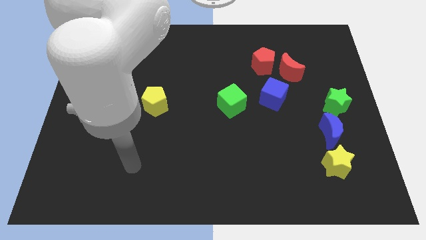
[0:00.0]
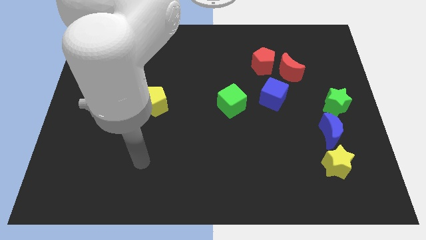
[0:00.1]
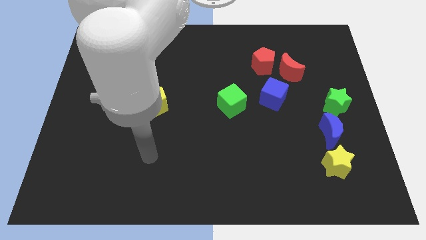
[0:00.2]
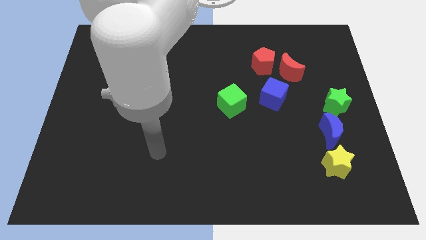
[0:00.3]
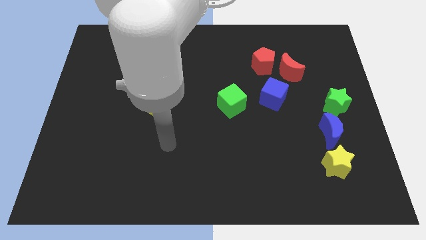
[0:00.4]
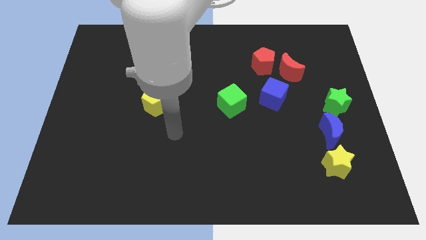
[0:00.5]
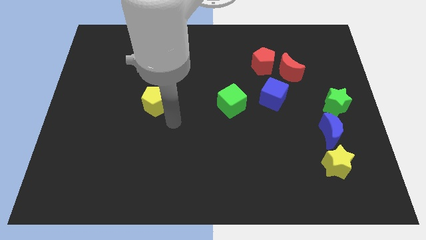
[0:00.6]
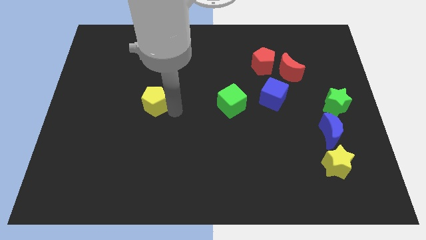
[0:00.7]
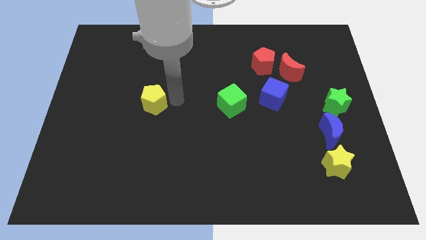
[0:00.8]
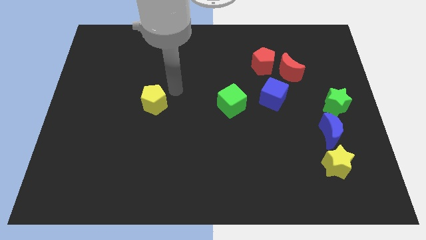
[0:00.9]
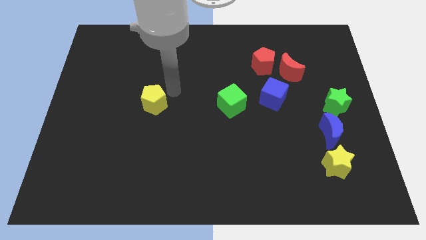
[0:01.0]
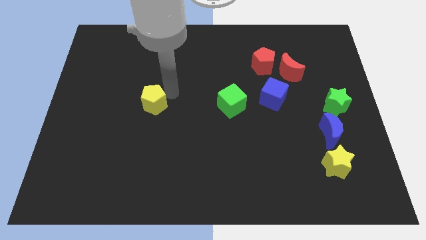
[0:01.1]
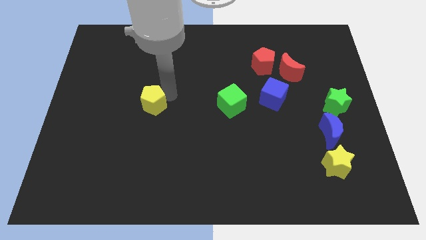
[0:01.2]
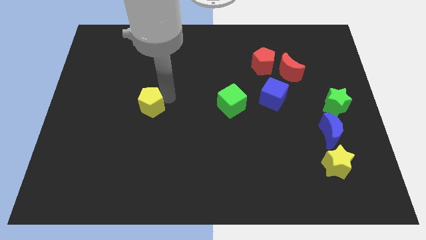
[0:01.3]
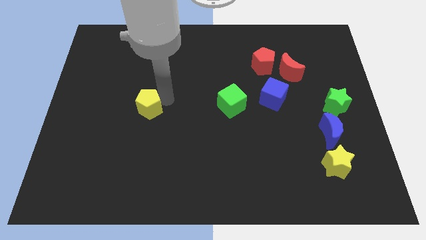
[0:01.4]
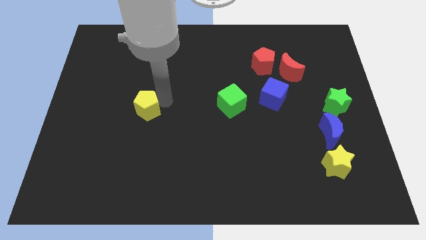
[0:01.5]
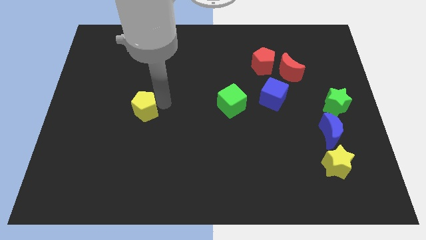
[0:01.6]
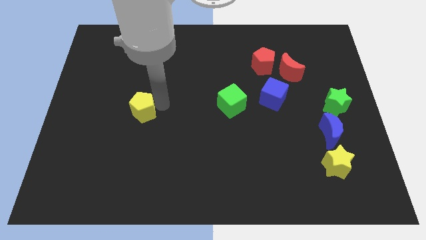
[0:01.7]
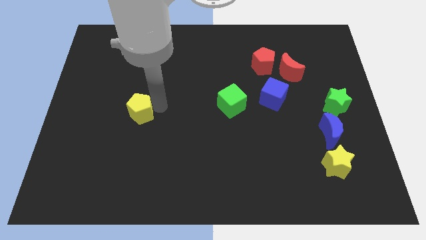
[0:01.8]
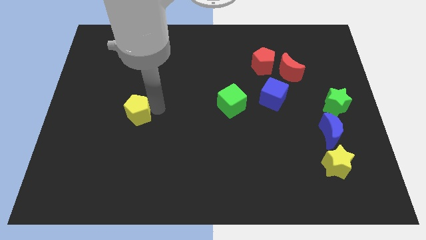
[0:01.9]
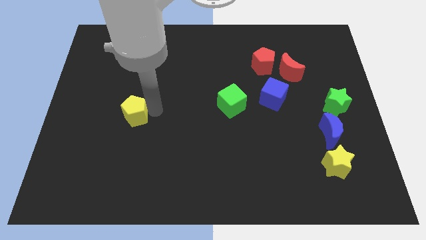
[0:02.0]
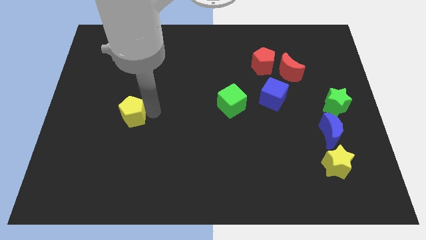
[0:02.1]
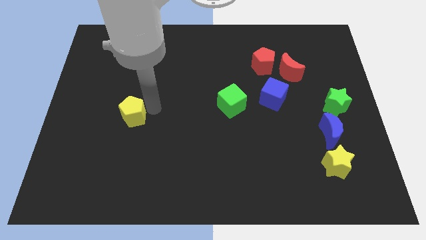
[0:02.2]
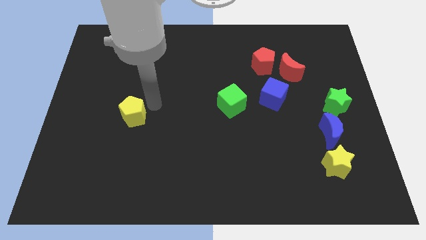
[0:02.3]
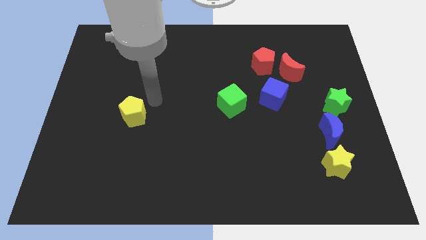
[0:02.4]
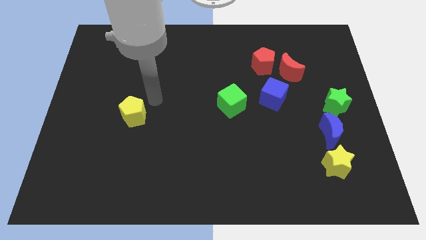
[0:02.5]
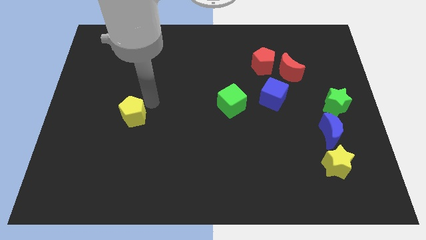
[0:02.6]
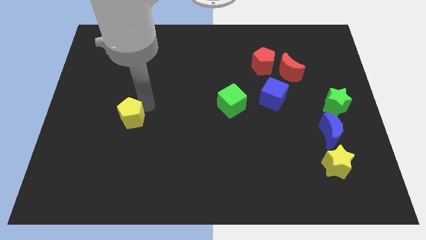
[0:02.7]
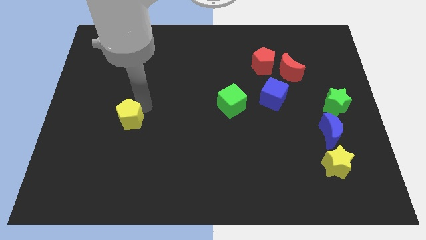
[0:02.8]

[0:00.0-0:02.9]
slightly push the yellow pentagon downwards and then left

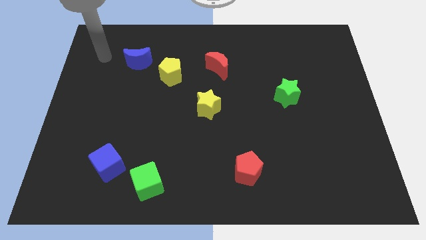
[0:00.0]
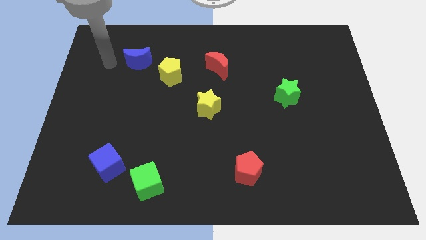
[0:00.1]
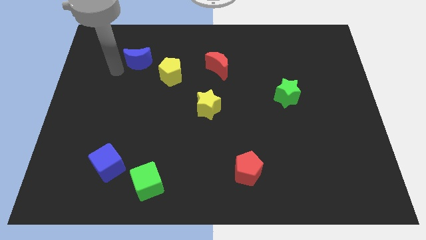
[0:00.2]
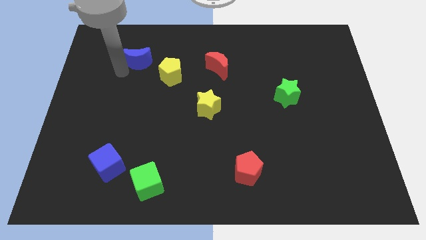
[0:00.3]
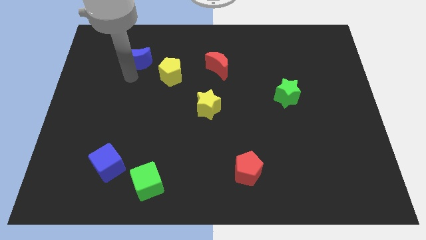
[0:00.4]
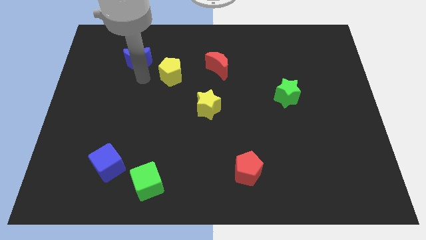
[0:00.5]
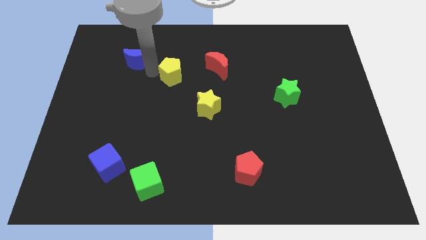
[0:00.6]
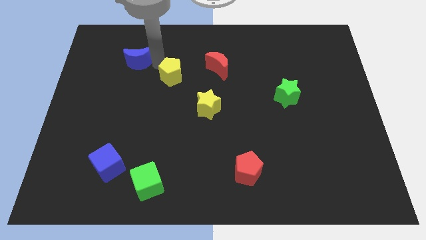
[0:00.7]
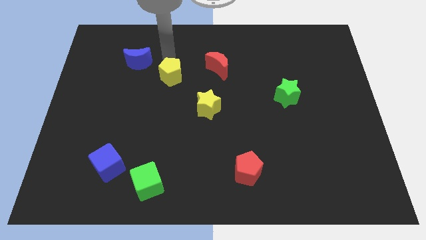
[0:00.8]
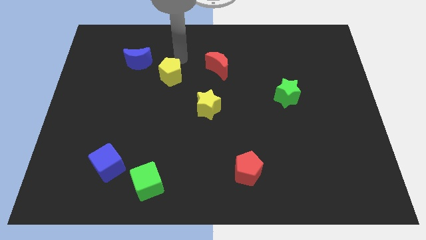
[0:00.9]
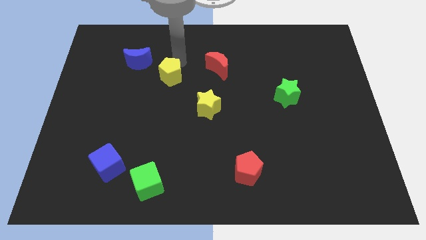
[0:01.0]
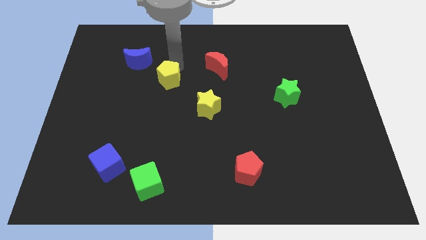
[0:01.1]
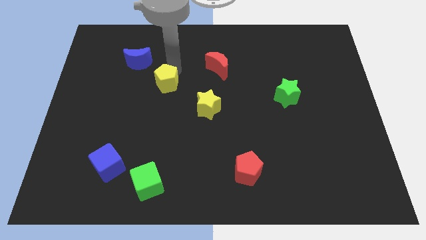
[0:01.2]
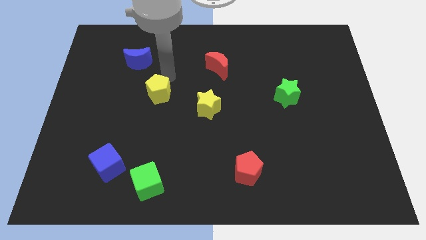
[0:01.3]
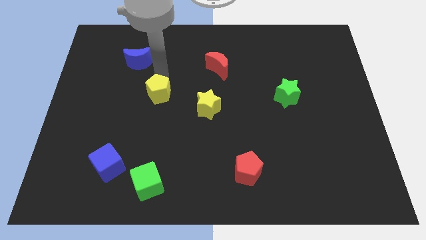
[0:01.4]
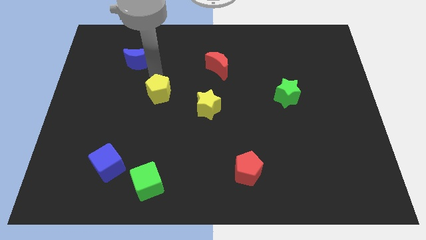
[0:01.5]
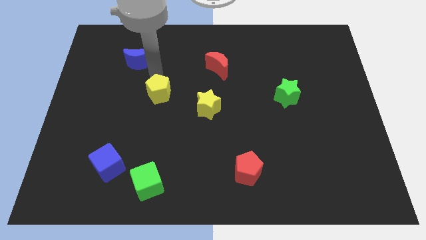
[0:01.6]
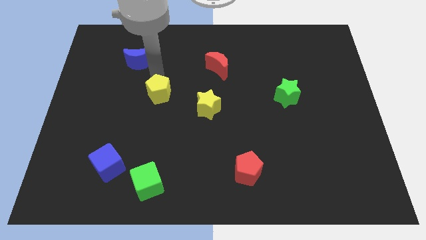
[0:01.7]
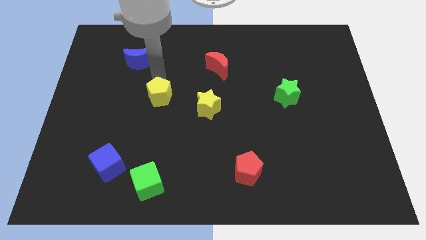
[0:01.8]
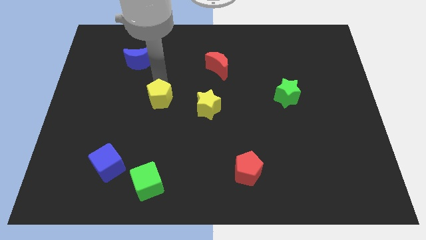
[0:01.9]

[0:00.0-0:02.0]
move the yellow pentagon a little bit downwards

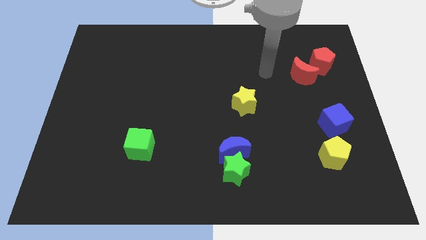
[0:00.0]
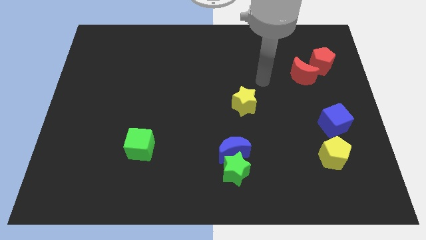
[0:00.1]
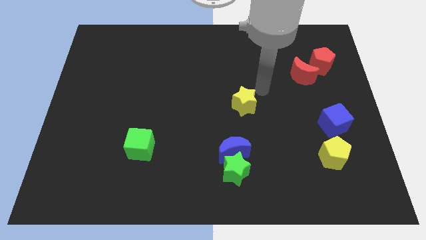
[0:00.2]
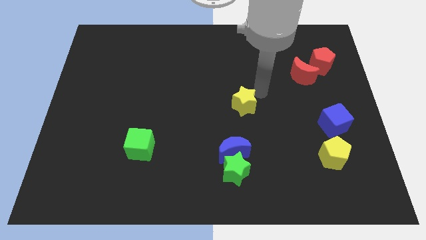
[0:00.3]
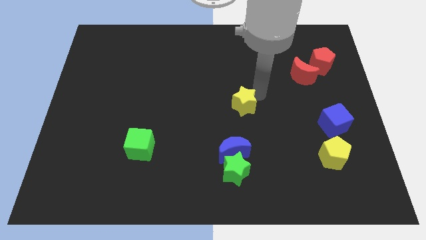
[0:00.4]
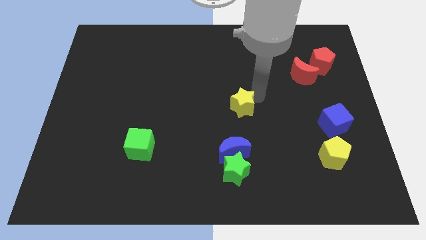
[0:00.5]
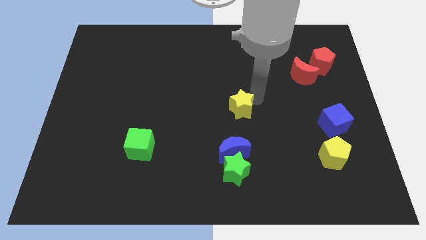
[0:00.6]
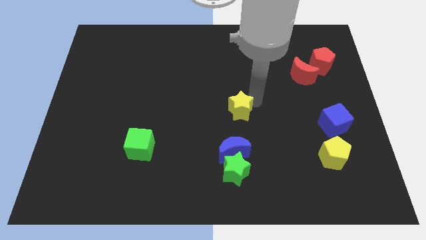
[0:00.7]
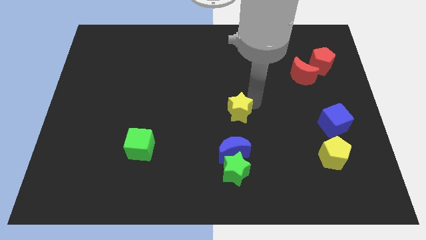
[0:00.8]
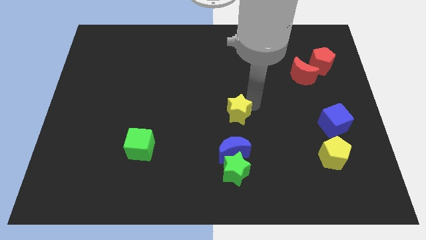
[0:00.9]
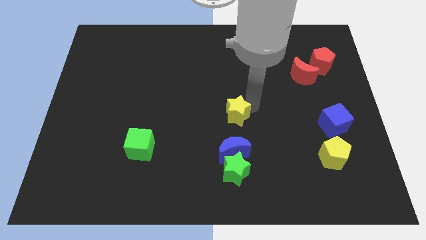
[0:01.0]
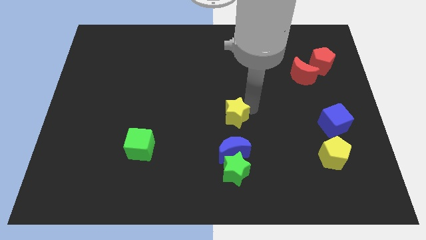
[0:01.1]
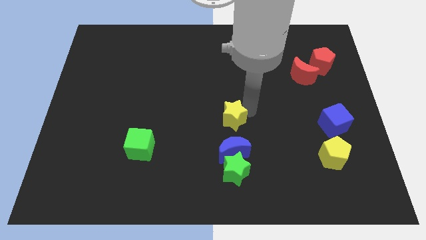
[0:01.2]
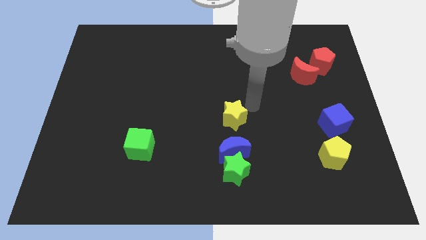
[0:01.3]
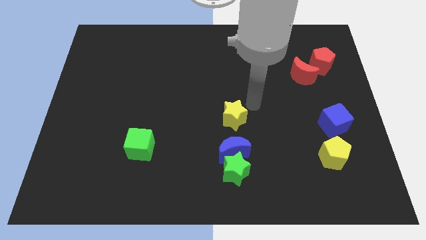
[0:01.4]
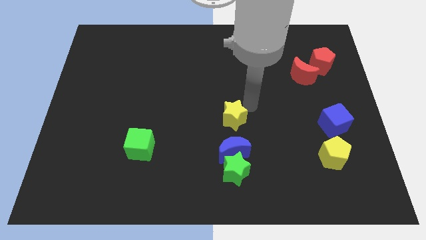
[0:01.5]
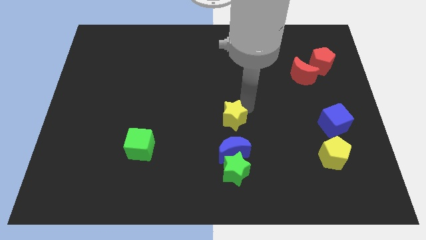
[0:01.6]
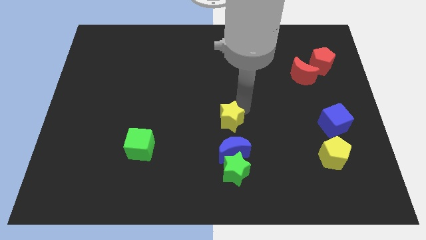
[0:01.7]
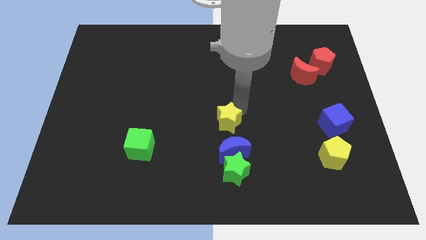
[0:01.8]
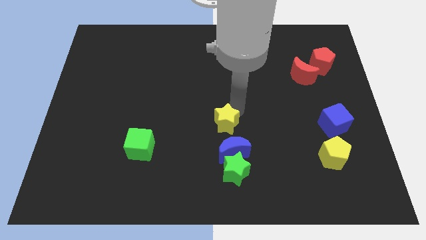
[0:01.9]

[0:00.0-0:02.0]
slightly slide the yellow star diagonally downwards and left

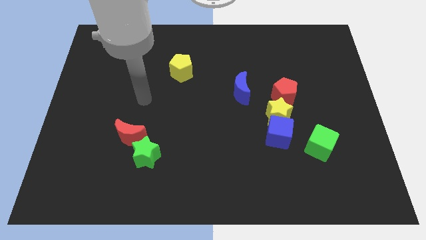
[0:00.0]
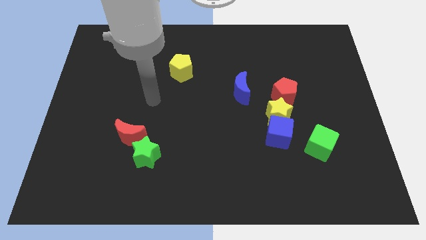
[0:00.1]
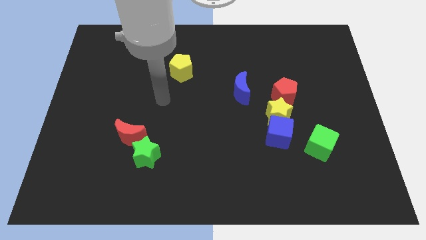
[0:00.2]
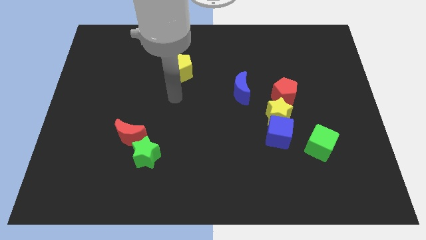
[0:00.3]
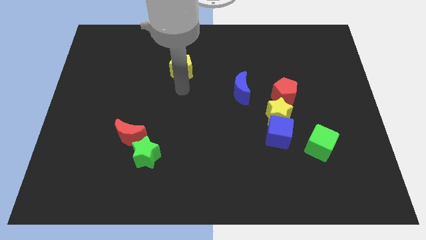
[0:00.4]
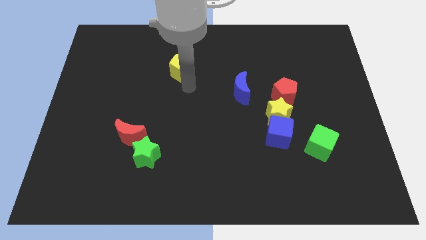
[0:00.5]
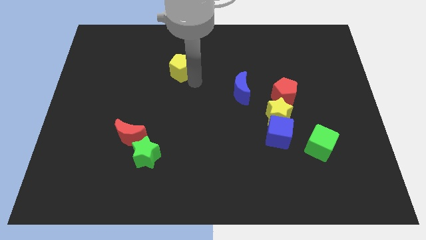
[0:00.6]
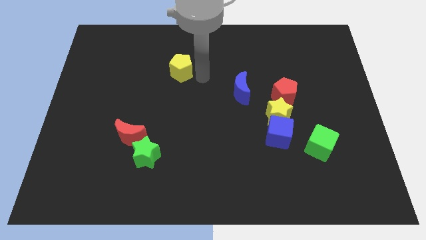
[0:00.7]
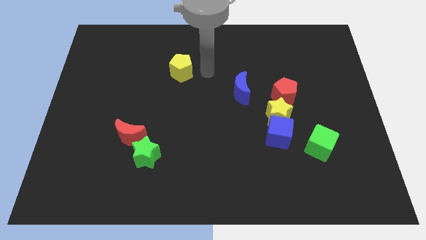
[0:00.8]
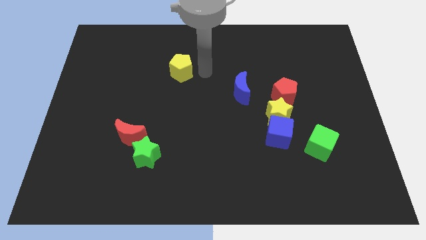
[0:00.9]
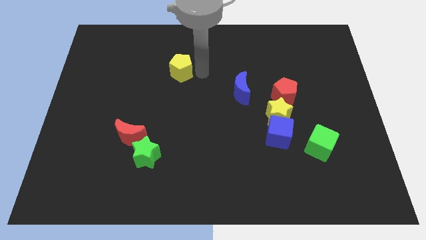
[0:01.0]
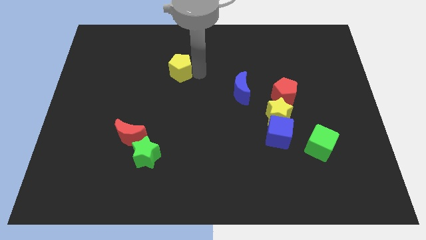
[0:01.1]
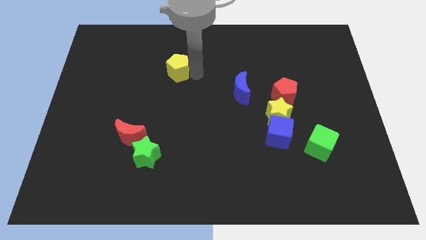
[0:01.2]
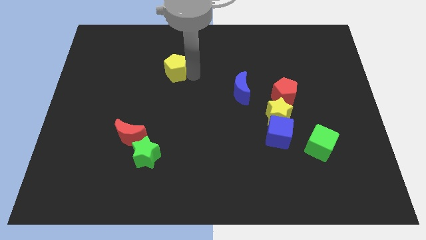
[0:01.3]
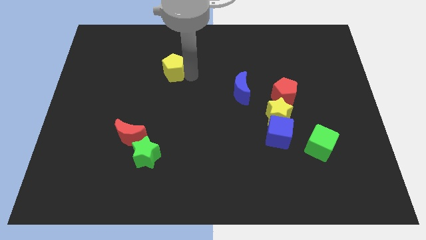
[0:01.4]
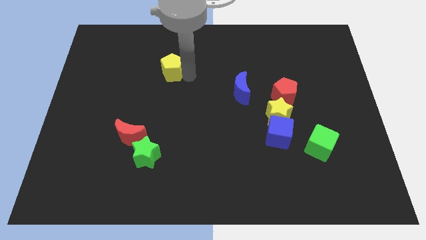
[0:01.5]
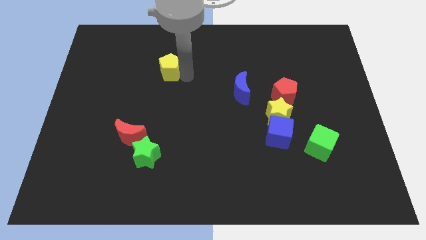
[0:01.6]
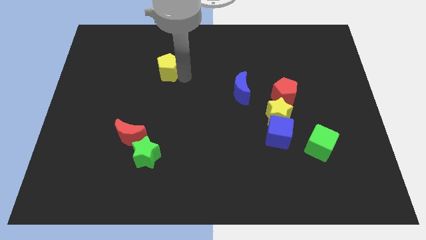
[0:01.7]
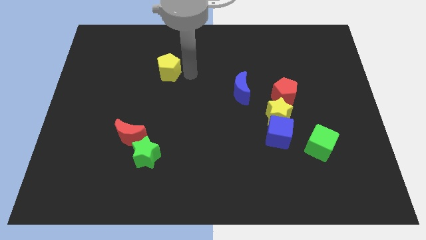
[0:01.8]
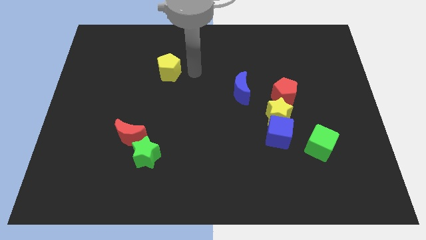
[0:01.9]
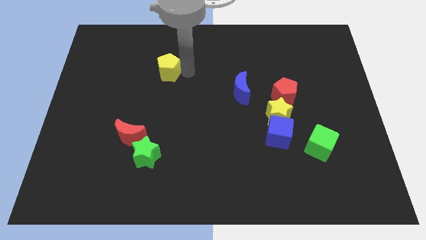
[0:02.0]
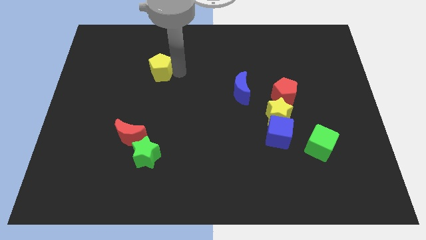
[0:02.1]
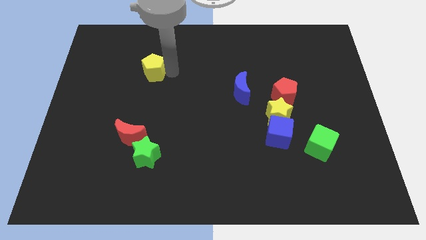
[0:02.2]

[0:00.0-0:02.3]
move the yellow pentagon a little bit to the left
